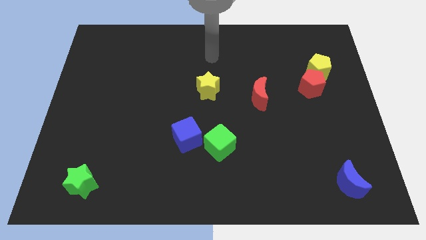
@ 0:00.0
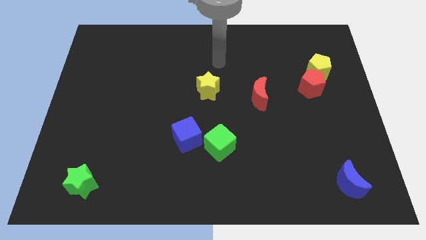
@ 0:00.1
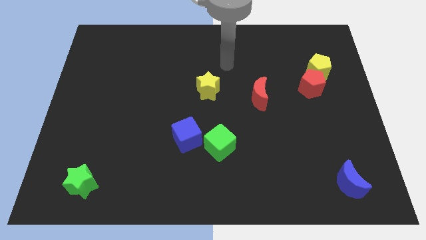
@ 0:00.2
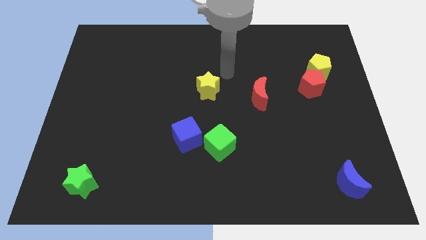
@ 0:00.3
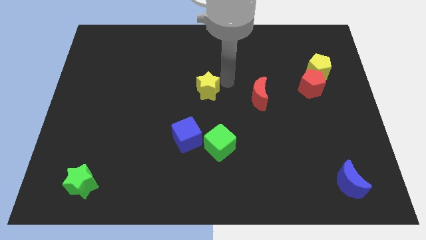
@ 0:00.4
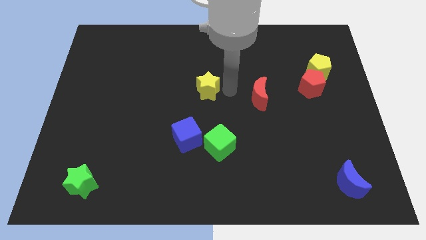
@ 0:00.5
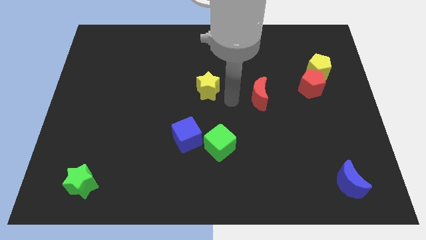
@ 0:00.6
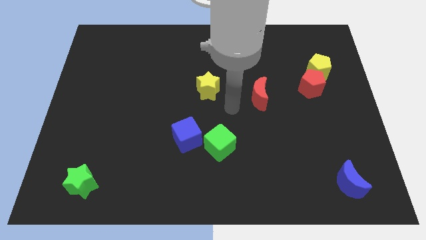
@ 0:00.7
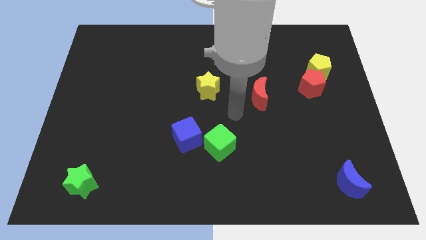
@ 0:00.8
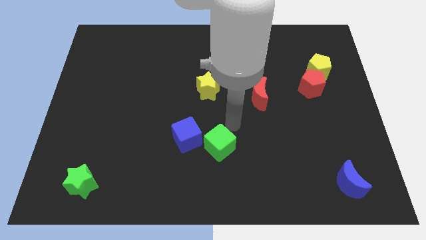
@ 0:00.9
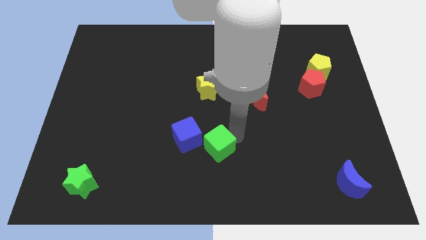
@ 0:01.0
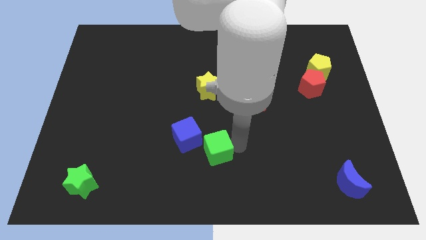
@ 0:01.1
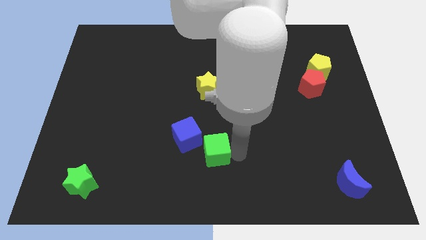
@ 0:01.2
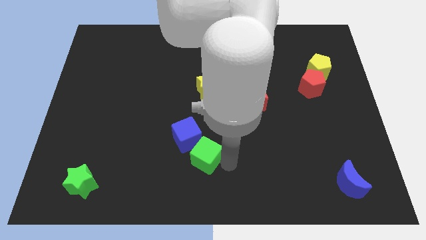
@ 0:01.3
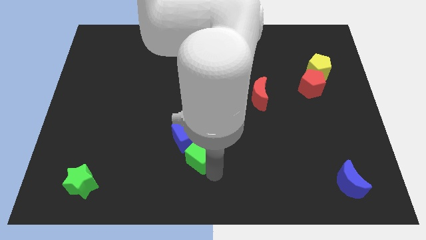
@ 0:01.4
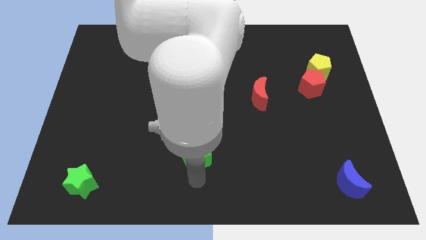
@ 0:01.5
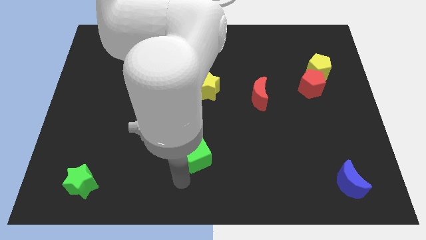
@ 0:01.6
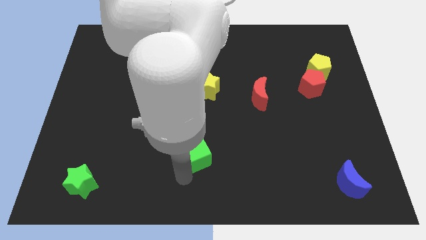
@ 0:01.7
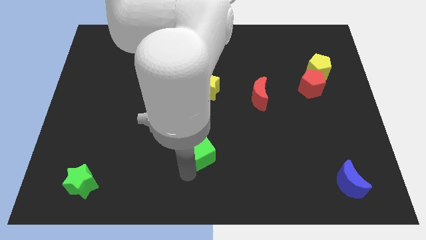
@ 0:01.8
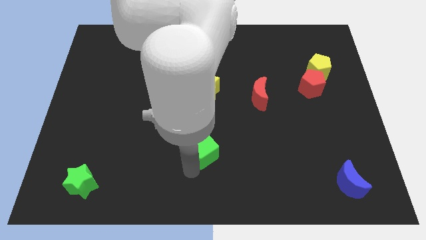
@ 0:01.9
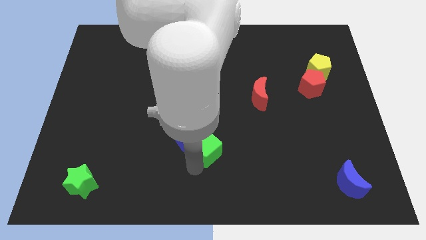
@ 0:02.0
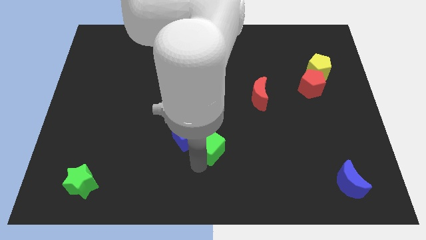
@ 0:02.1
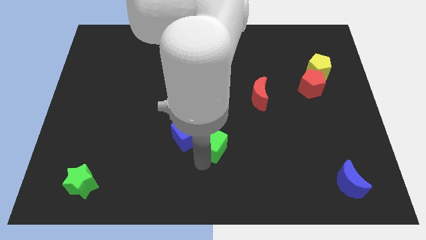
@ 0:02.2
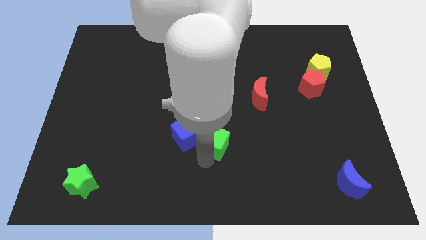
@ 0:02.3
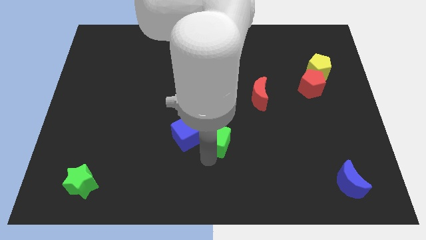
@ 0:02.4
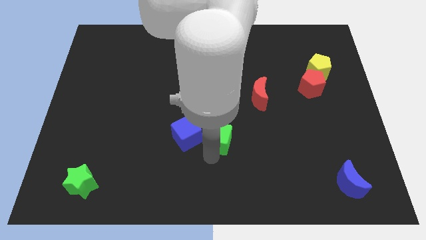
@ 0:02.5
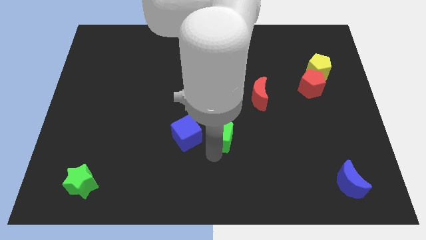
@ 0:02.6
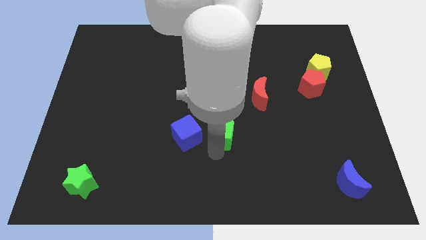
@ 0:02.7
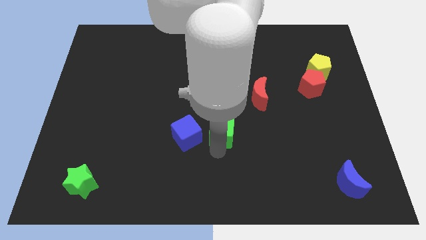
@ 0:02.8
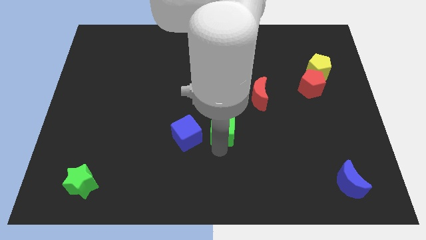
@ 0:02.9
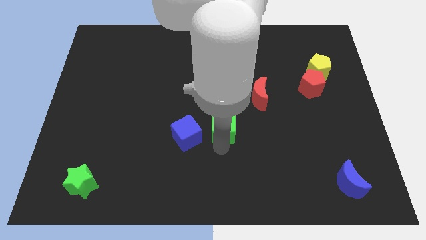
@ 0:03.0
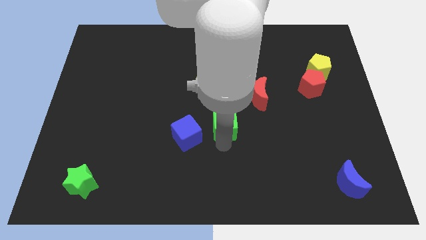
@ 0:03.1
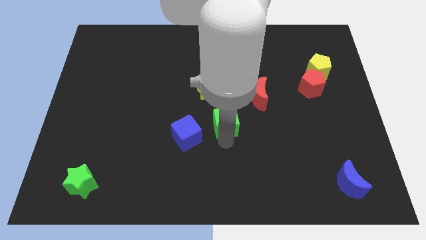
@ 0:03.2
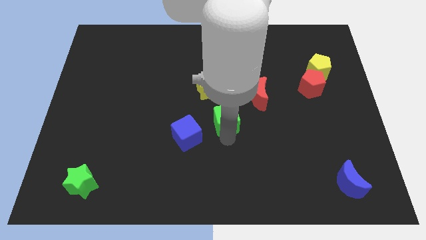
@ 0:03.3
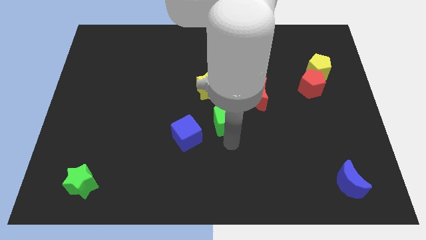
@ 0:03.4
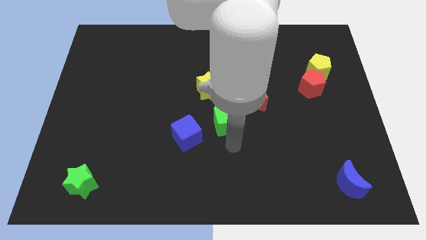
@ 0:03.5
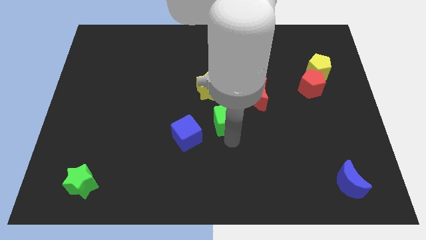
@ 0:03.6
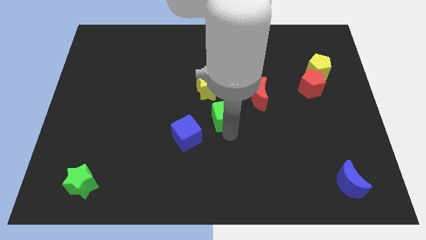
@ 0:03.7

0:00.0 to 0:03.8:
slide the green cube up a little bit

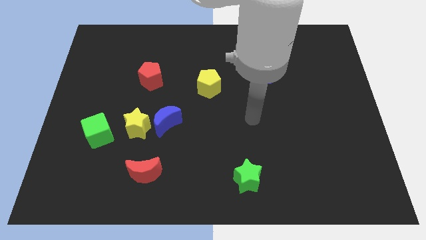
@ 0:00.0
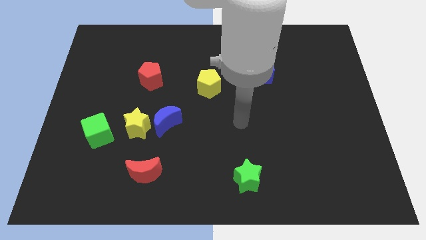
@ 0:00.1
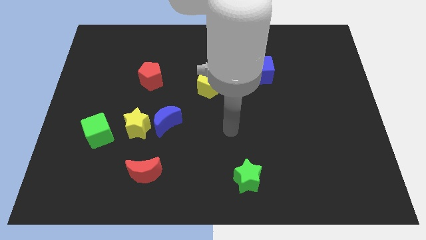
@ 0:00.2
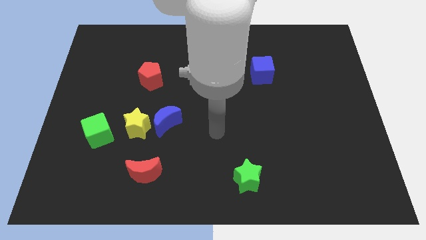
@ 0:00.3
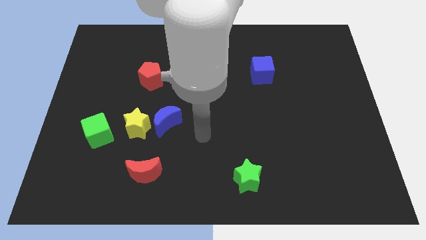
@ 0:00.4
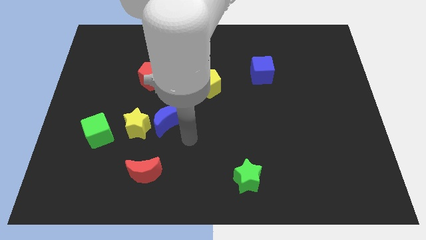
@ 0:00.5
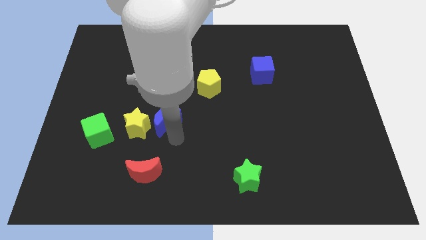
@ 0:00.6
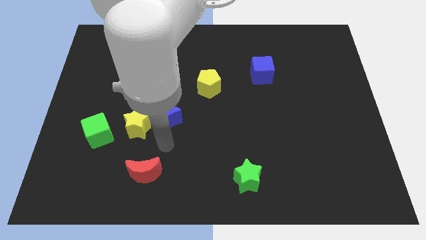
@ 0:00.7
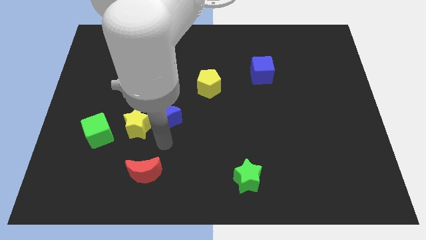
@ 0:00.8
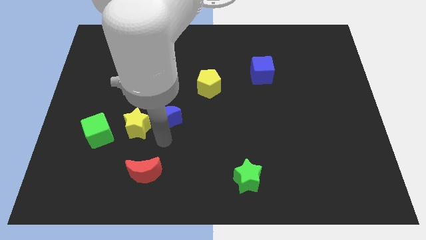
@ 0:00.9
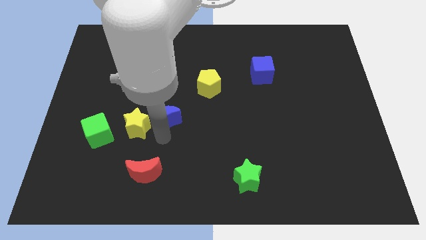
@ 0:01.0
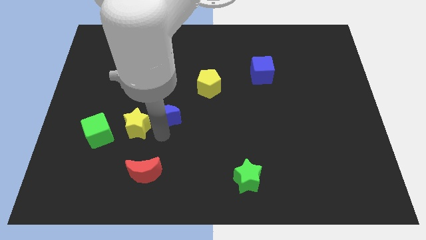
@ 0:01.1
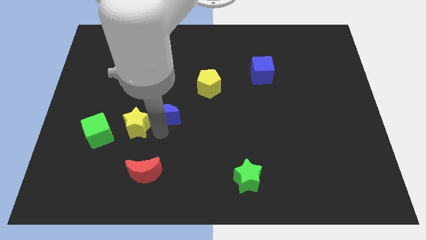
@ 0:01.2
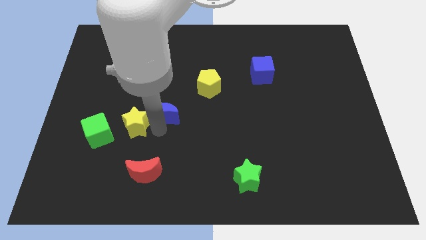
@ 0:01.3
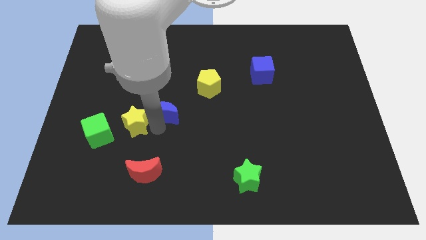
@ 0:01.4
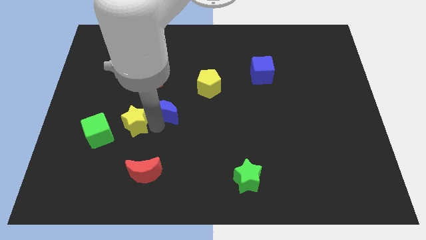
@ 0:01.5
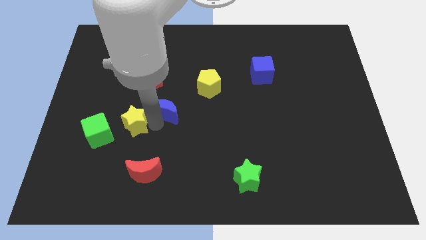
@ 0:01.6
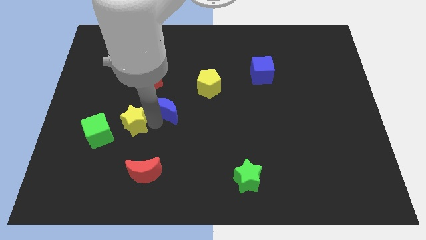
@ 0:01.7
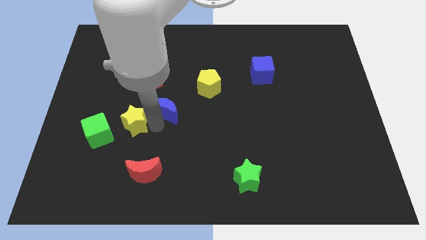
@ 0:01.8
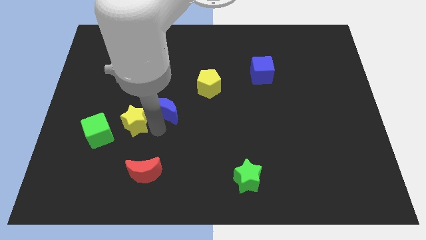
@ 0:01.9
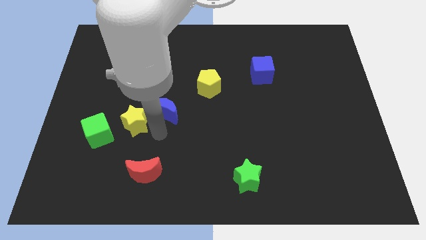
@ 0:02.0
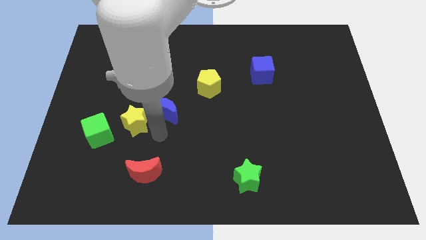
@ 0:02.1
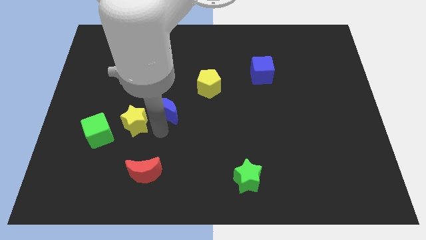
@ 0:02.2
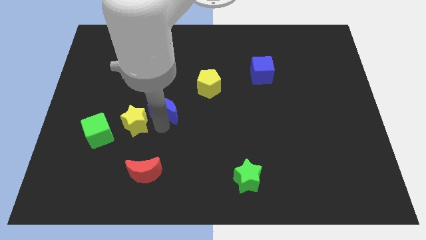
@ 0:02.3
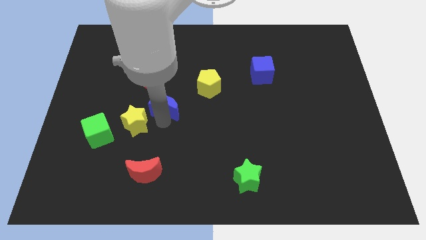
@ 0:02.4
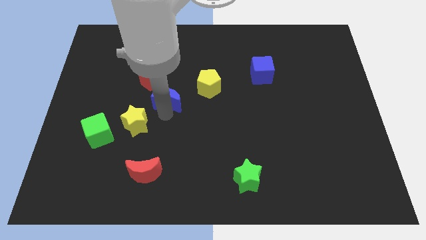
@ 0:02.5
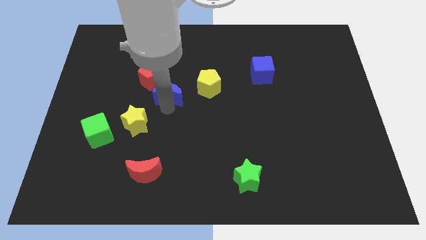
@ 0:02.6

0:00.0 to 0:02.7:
slightly move the blue moon up

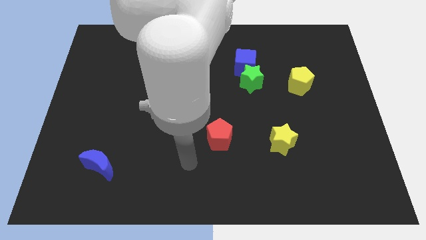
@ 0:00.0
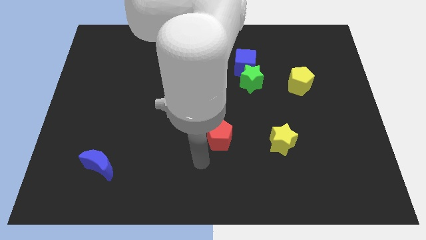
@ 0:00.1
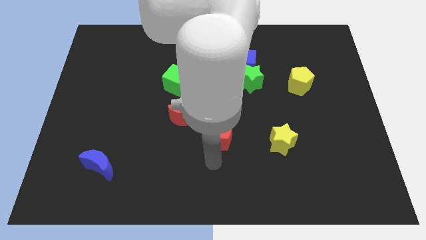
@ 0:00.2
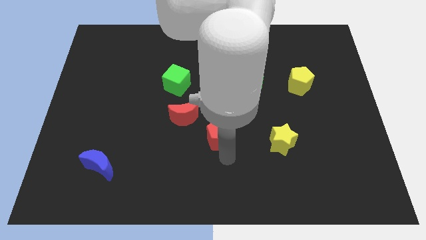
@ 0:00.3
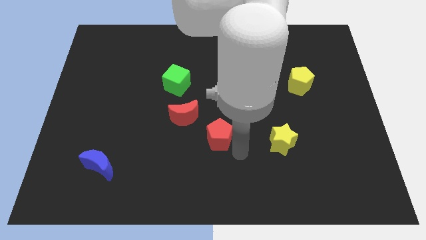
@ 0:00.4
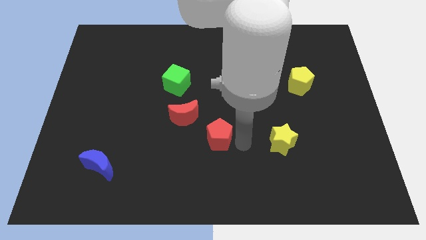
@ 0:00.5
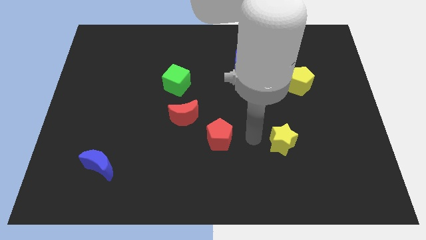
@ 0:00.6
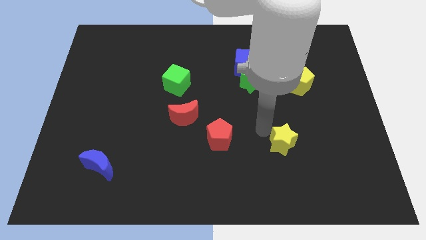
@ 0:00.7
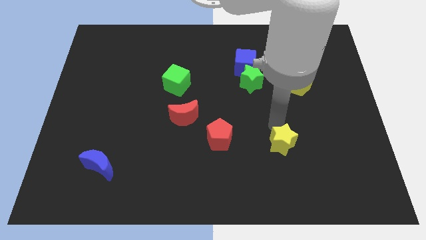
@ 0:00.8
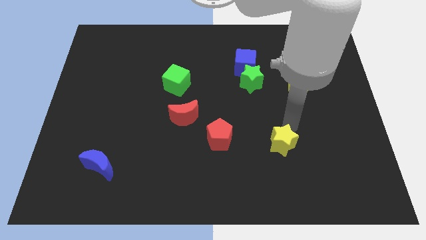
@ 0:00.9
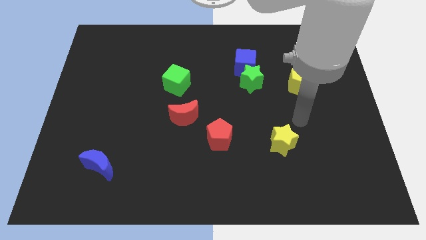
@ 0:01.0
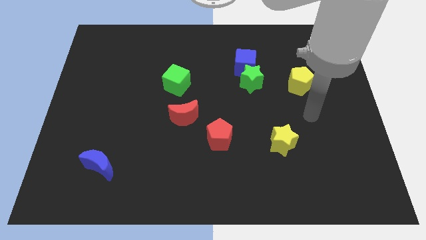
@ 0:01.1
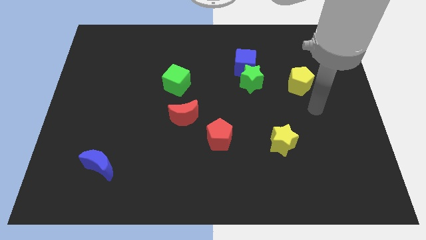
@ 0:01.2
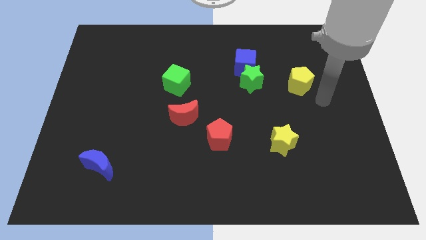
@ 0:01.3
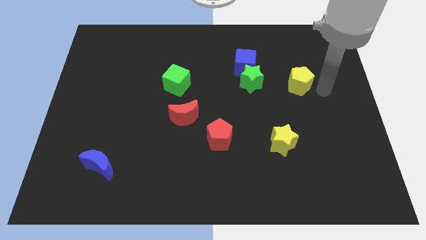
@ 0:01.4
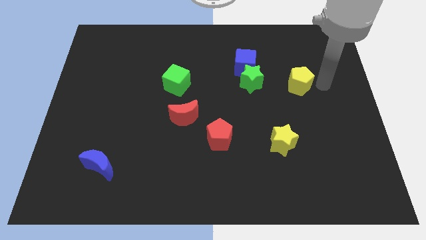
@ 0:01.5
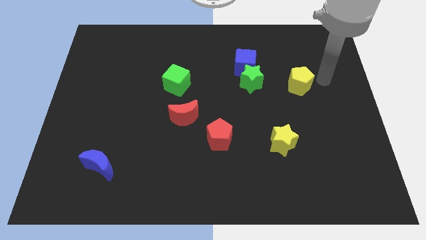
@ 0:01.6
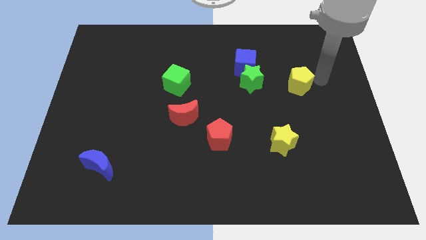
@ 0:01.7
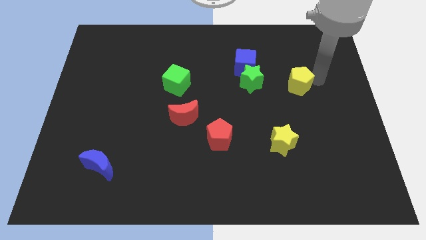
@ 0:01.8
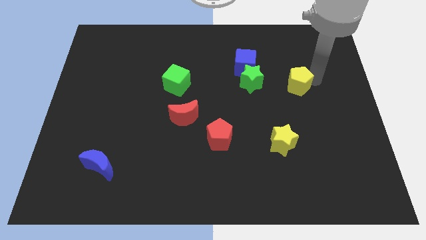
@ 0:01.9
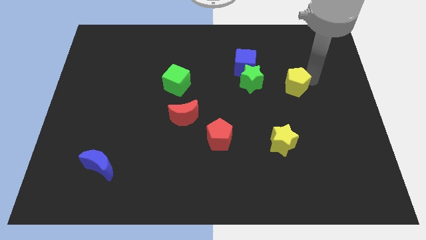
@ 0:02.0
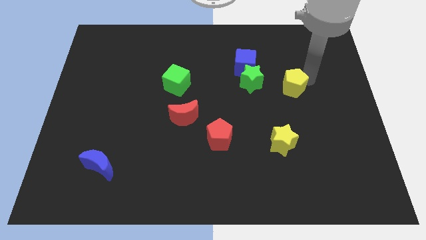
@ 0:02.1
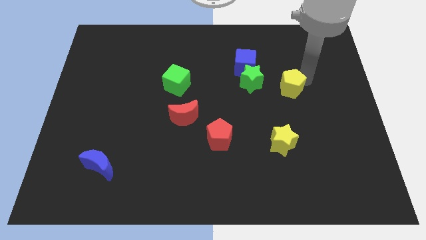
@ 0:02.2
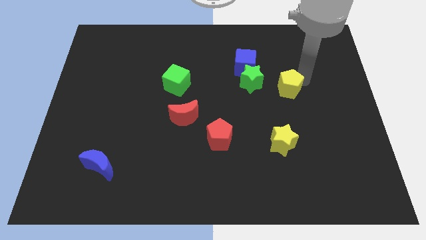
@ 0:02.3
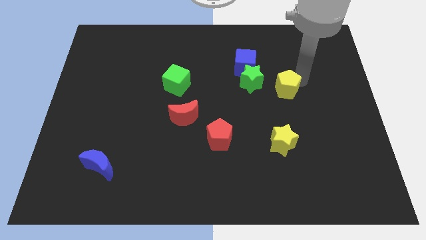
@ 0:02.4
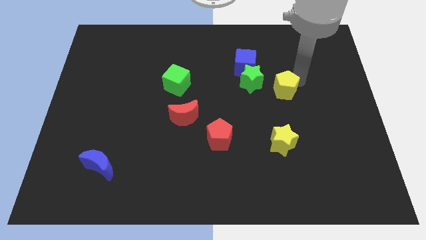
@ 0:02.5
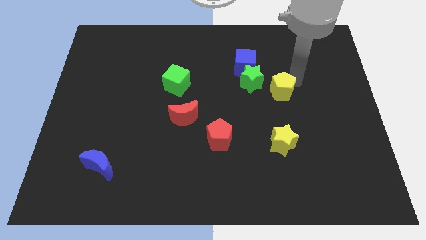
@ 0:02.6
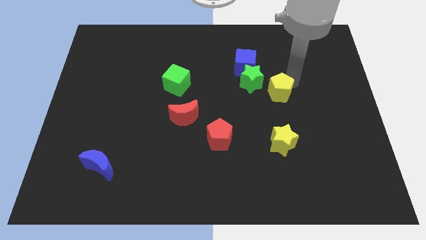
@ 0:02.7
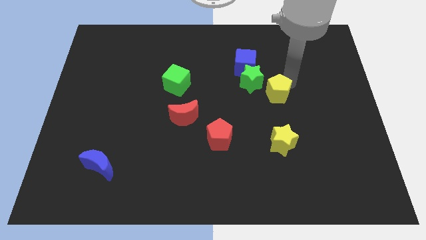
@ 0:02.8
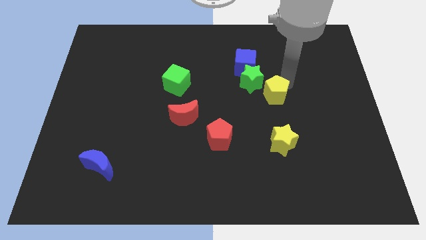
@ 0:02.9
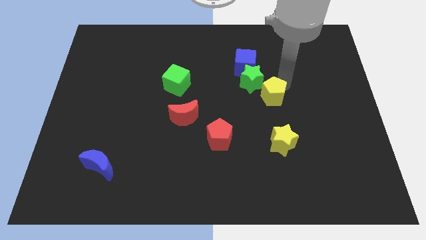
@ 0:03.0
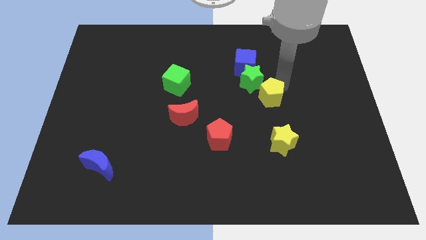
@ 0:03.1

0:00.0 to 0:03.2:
slightly push the yellow pentagon left
